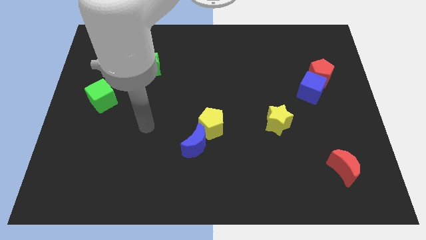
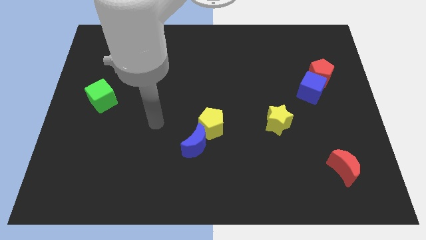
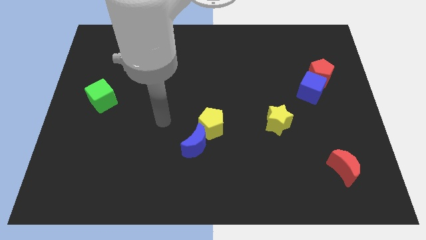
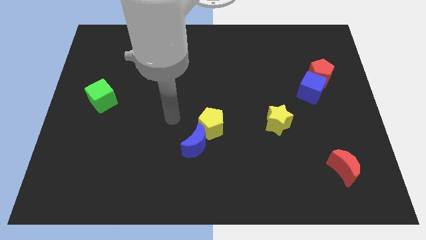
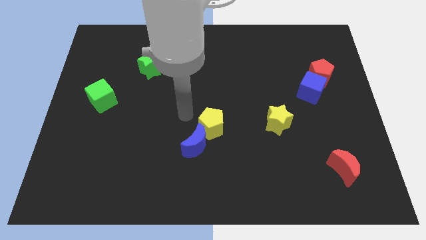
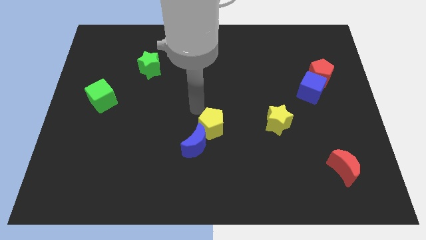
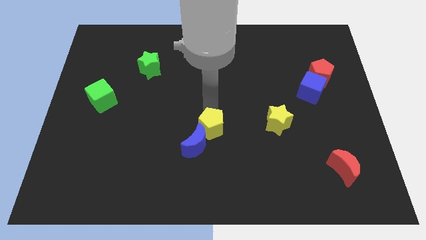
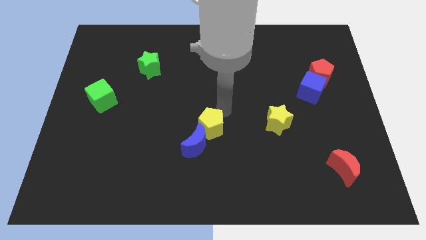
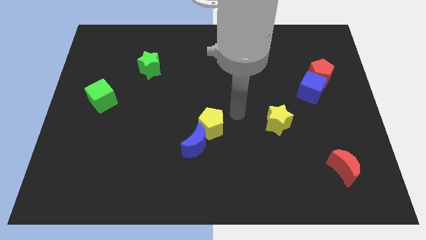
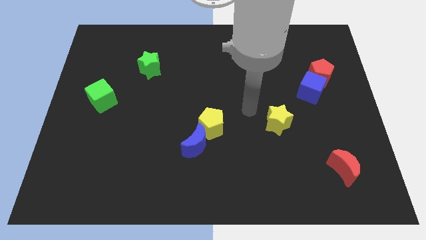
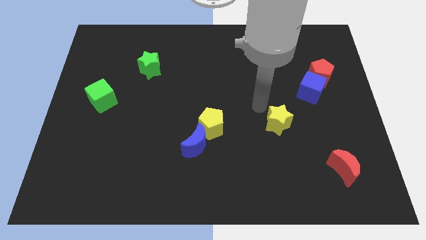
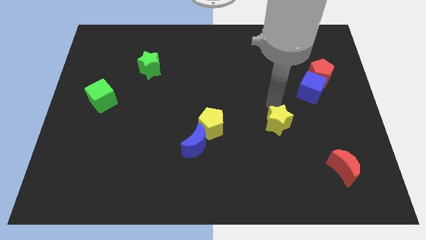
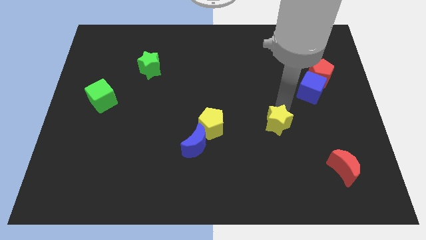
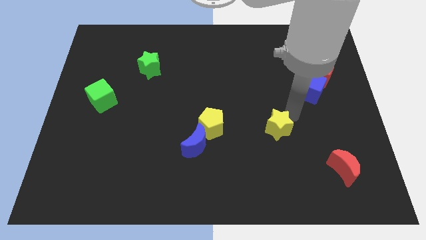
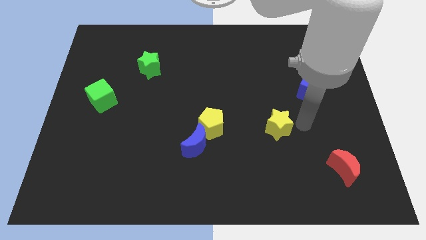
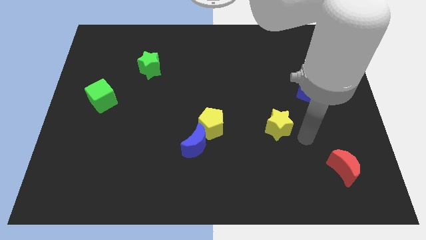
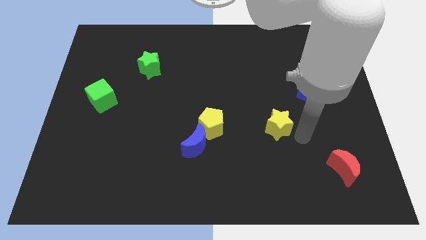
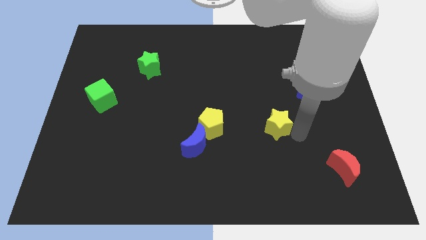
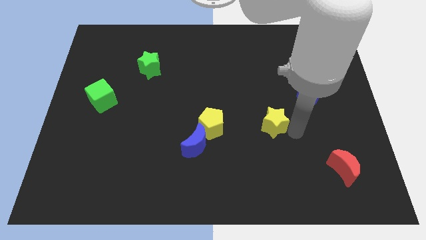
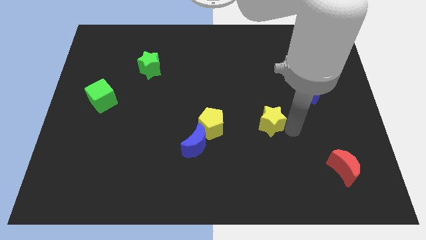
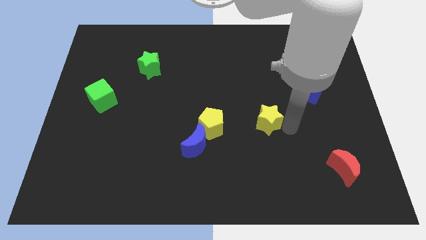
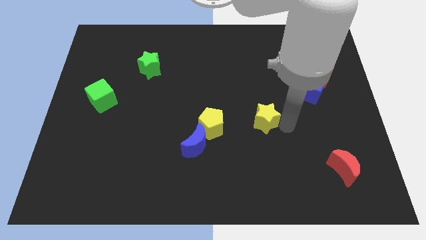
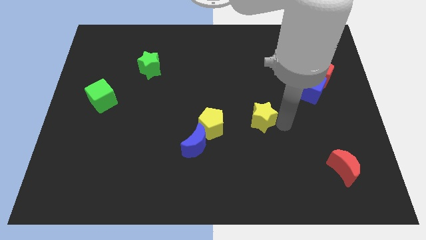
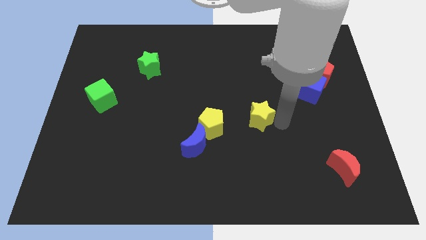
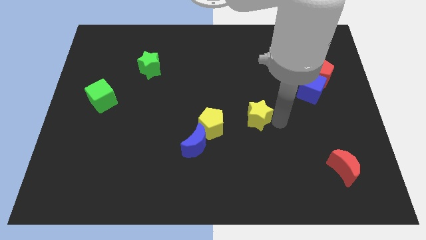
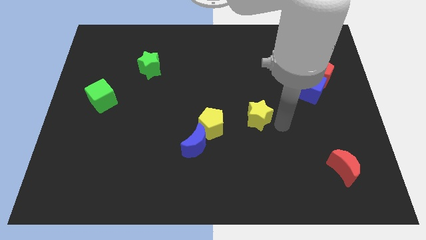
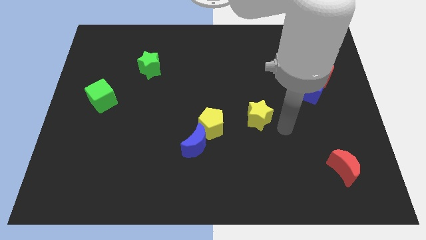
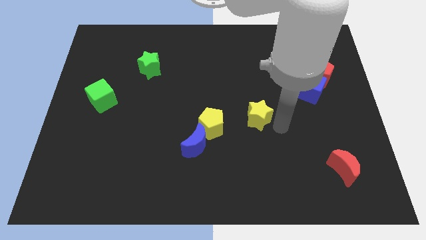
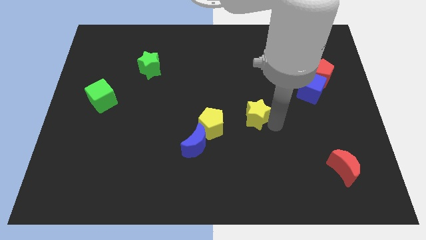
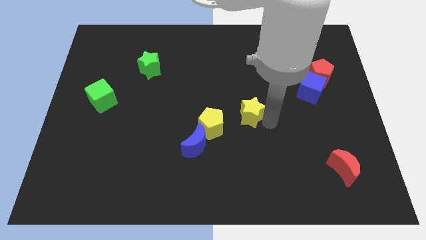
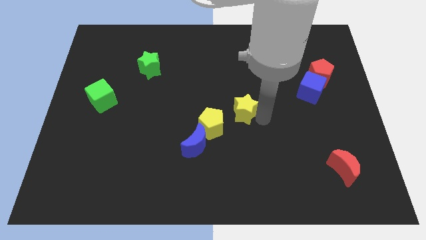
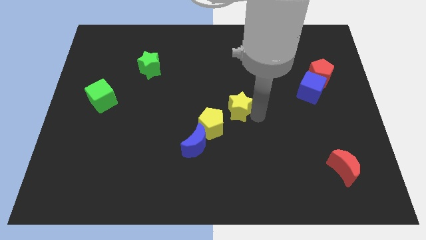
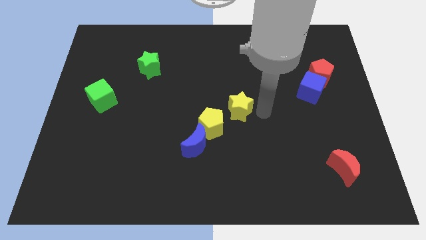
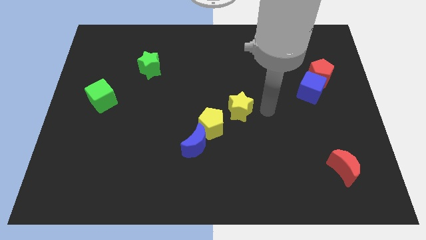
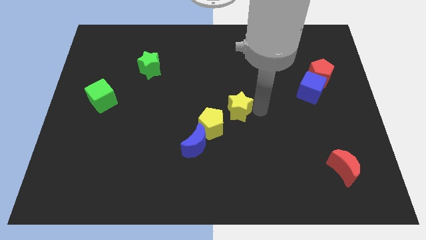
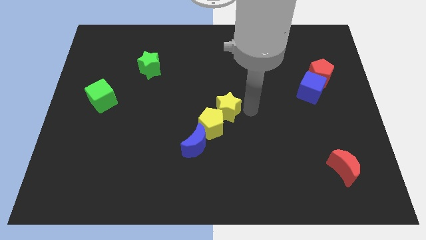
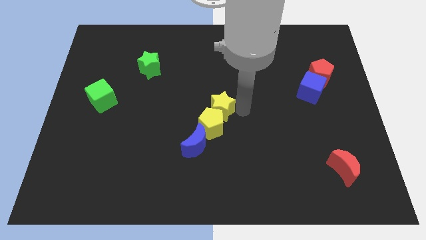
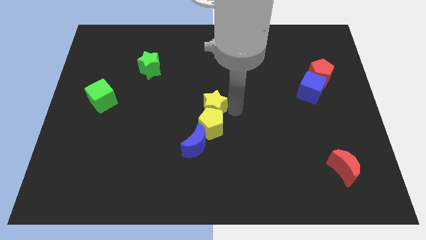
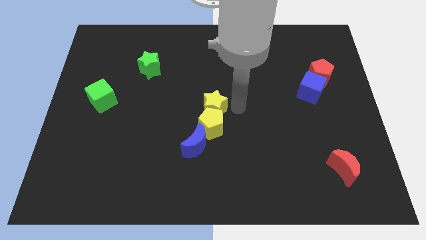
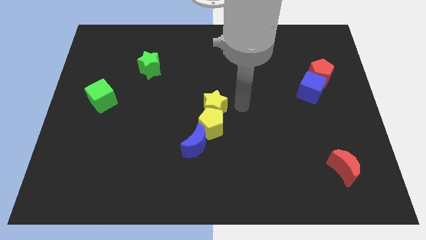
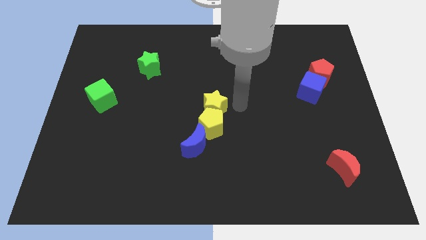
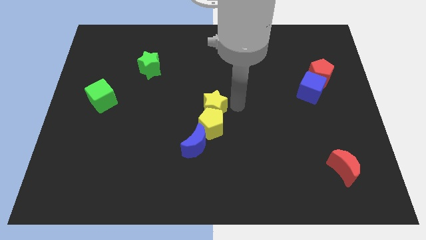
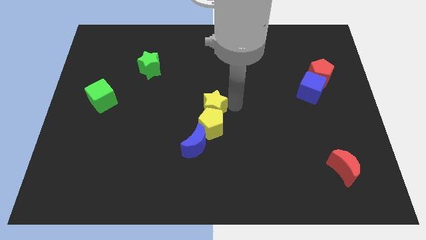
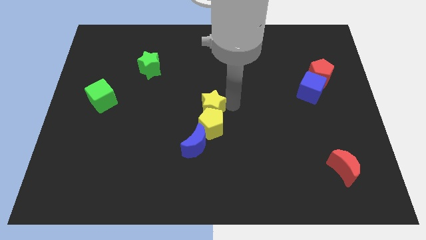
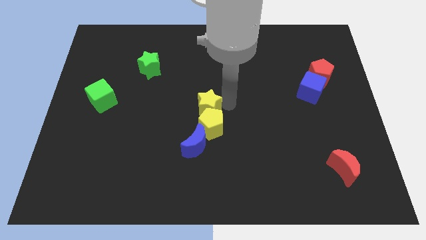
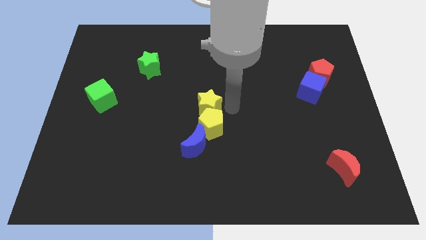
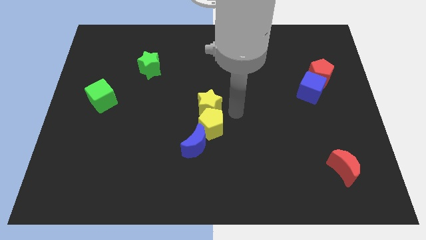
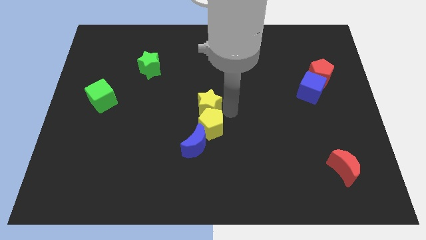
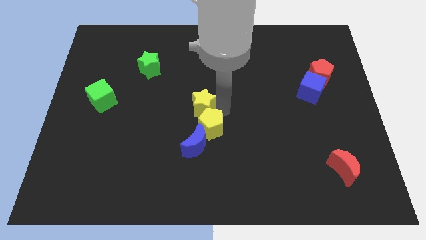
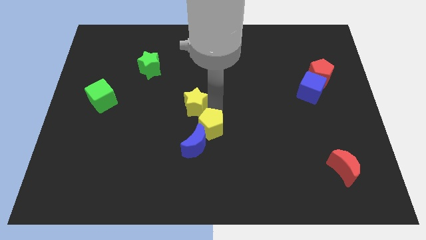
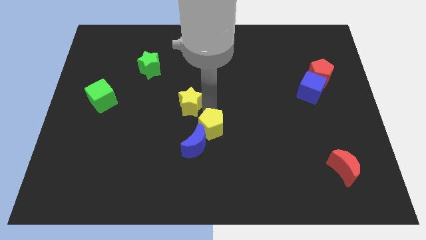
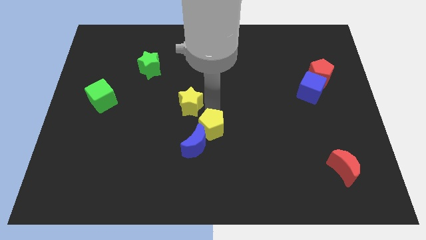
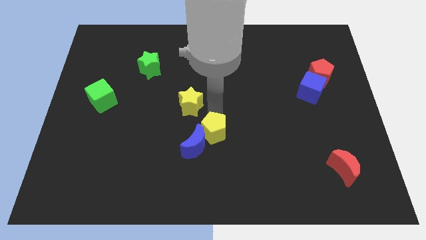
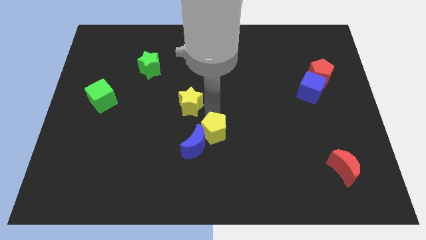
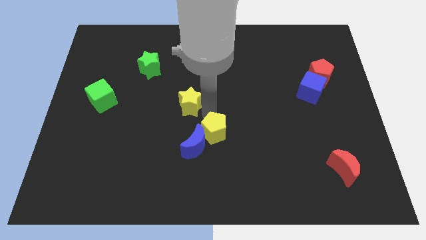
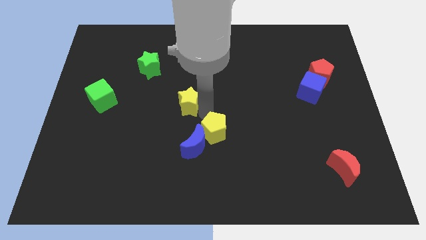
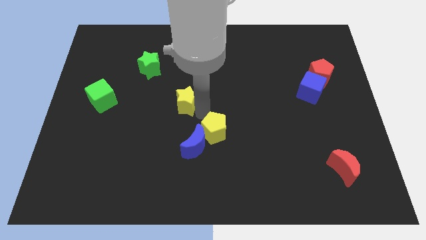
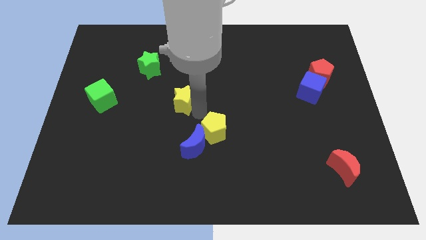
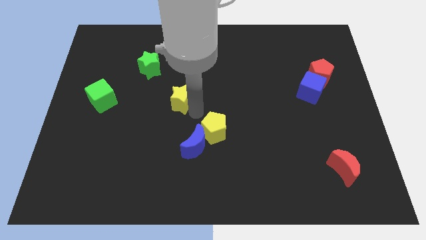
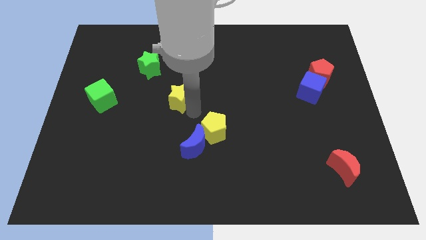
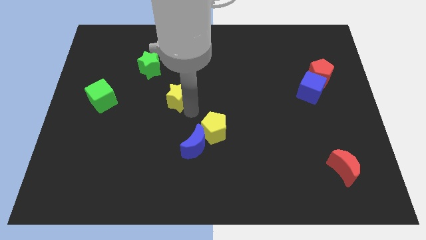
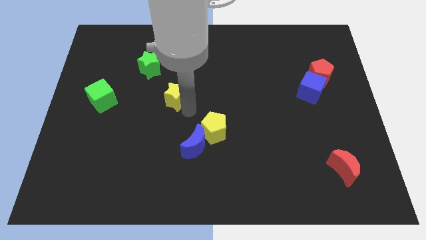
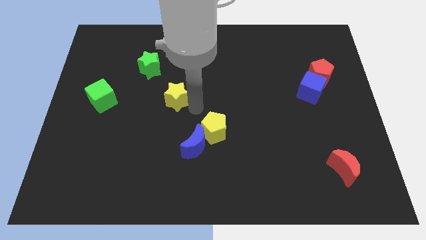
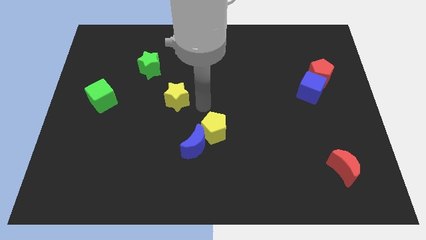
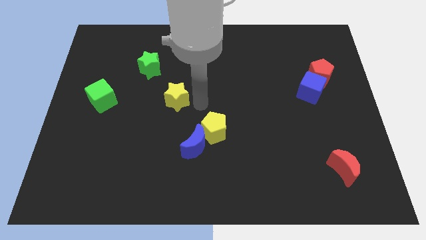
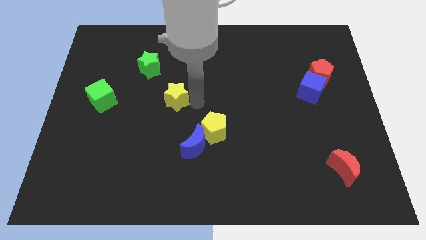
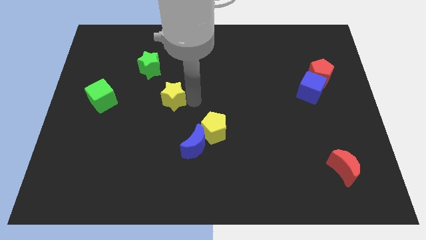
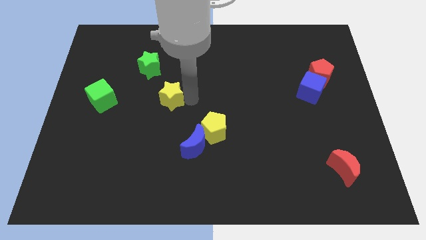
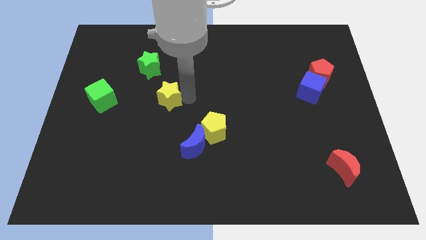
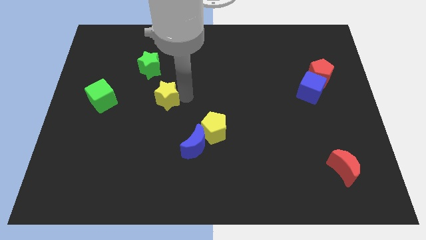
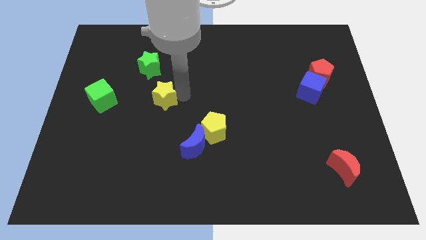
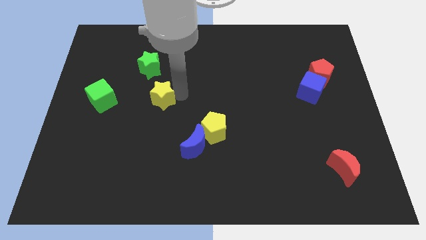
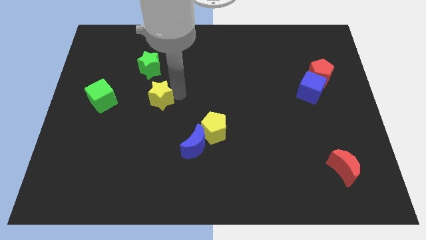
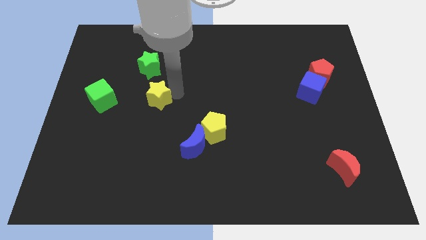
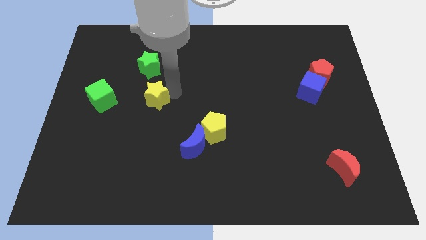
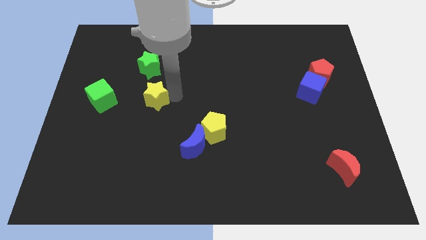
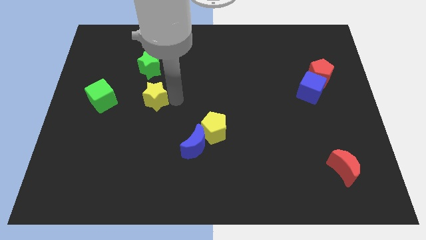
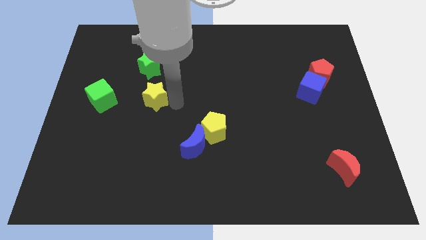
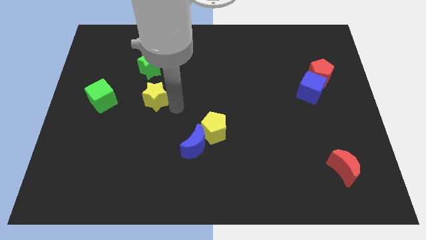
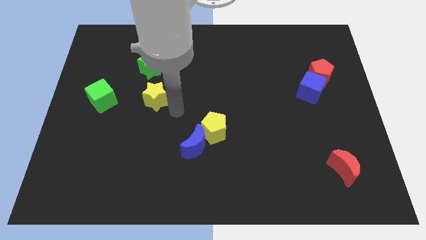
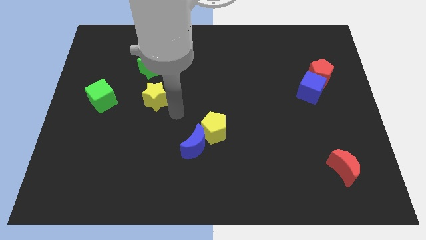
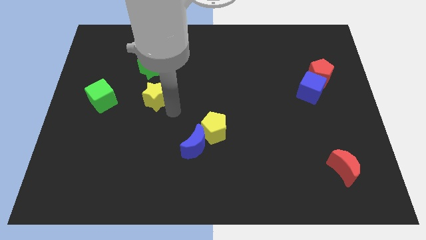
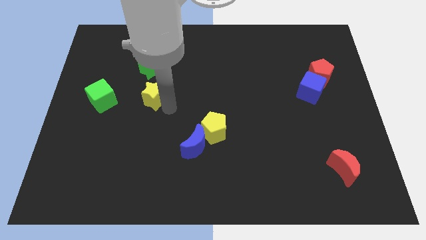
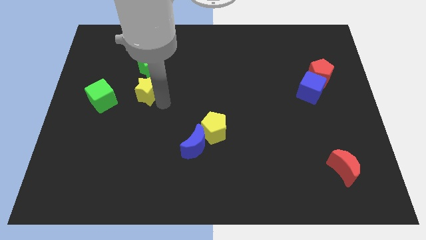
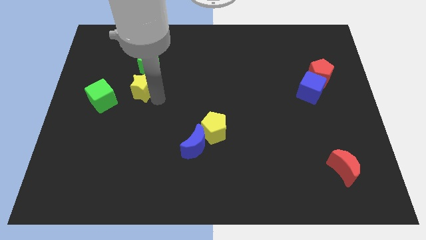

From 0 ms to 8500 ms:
move the yellow star to the bottom left of the green star
